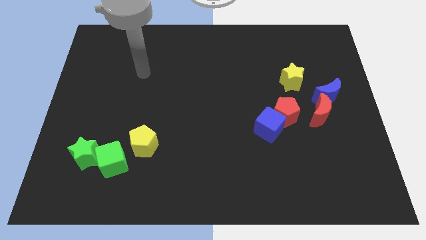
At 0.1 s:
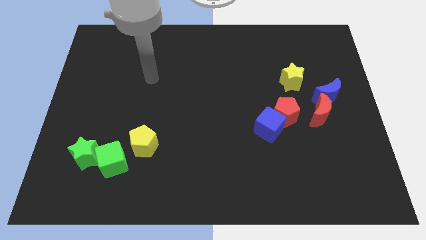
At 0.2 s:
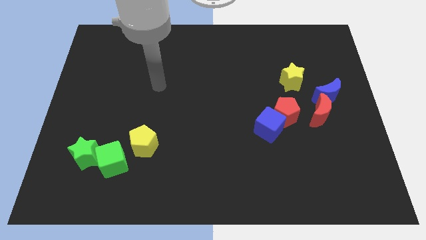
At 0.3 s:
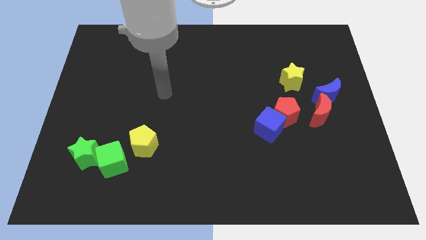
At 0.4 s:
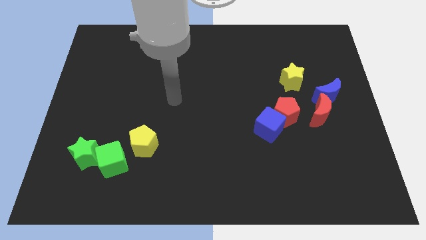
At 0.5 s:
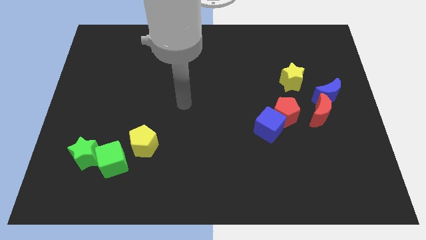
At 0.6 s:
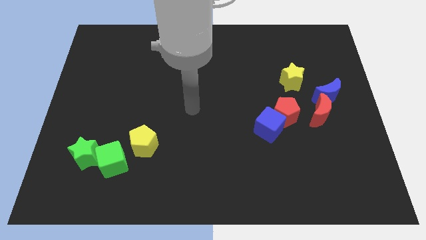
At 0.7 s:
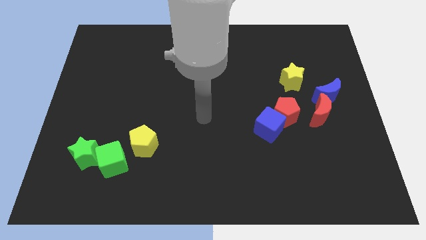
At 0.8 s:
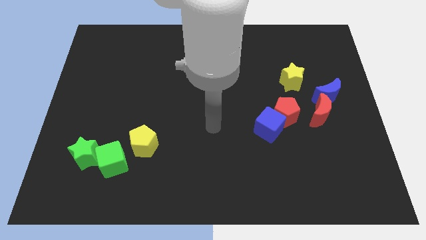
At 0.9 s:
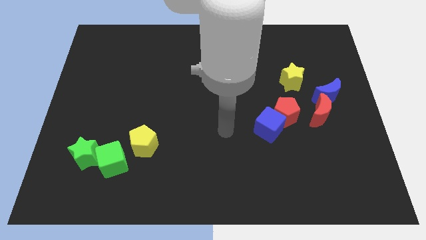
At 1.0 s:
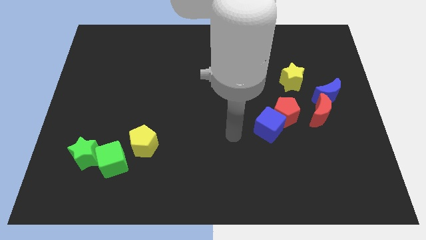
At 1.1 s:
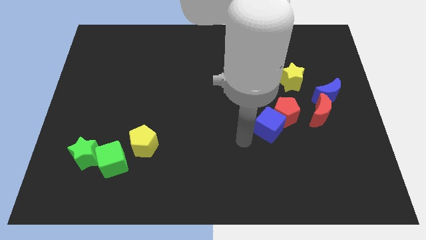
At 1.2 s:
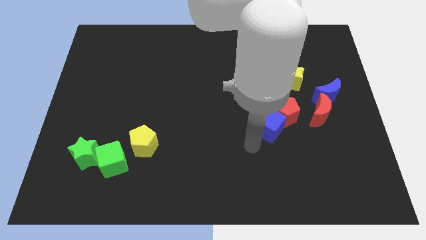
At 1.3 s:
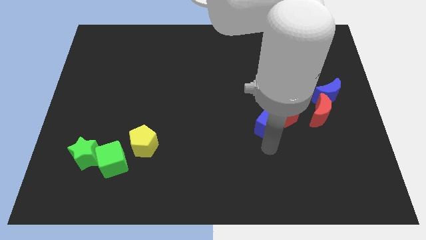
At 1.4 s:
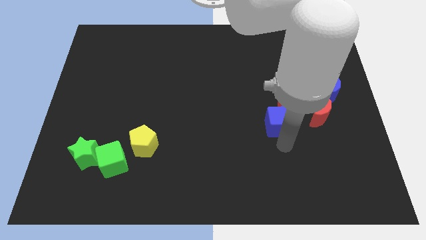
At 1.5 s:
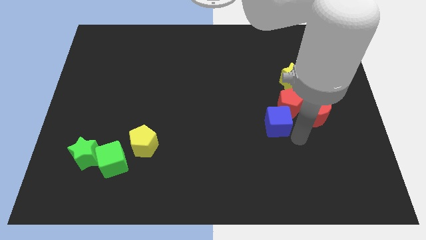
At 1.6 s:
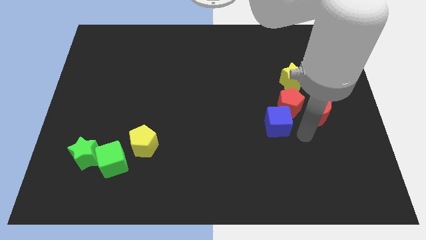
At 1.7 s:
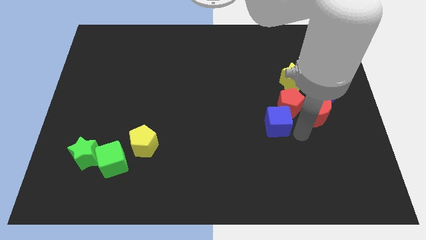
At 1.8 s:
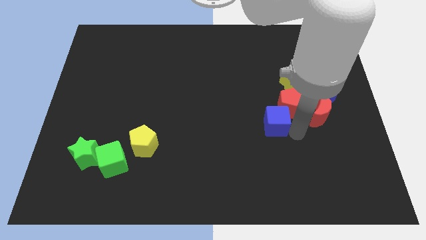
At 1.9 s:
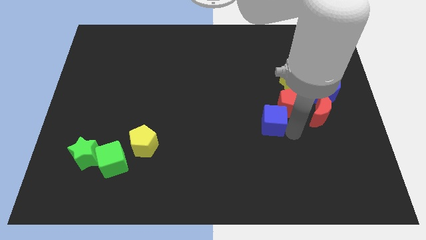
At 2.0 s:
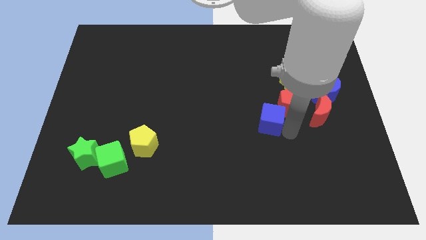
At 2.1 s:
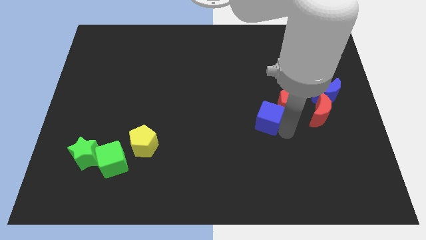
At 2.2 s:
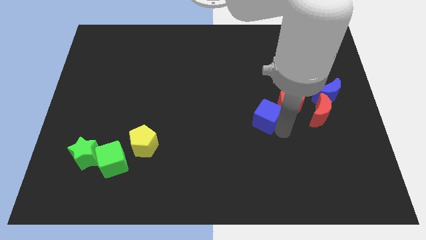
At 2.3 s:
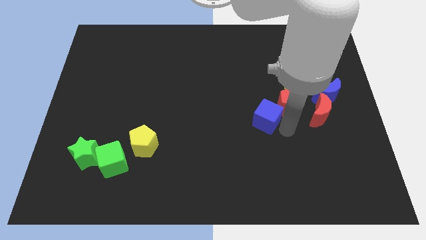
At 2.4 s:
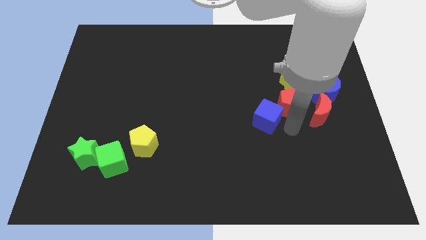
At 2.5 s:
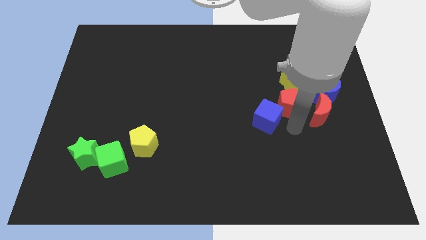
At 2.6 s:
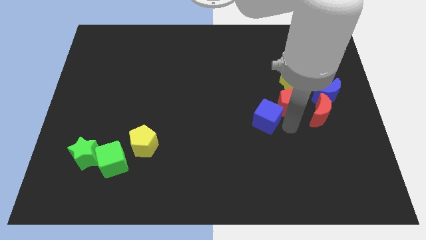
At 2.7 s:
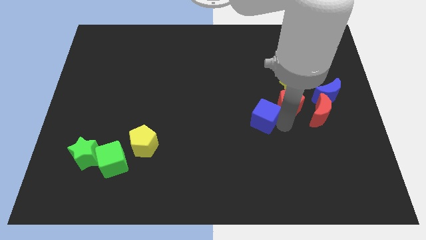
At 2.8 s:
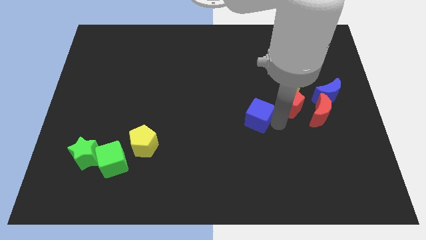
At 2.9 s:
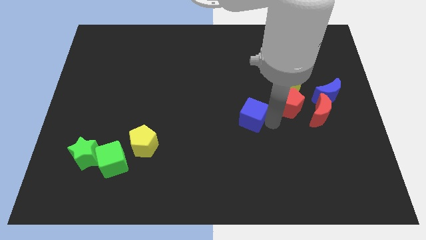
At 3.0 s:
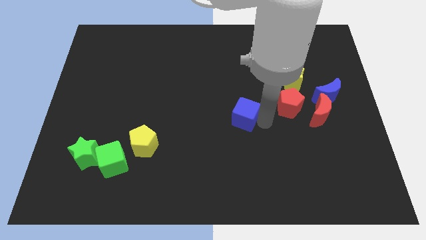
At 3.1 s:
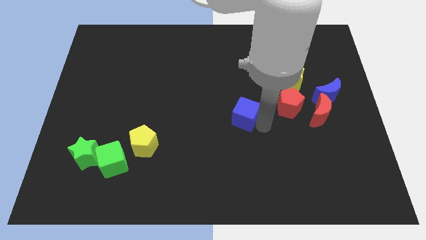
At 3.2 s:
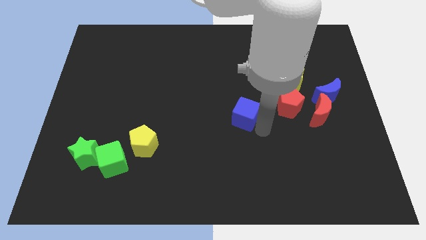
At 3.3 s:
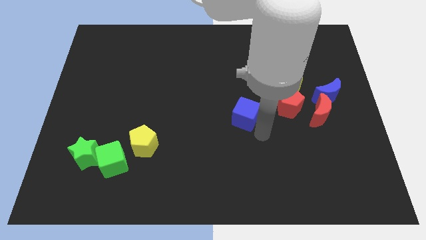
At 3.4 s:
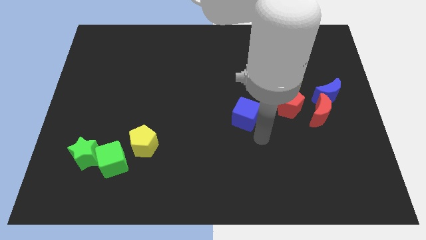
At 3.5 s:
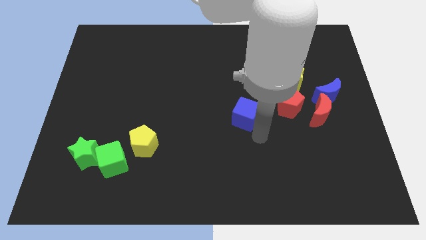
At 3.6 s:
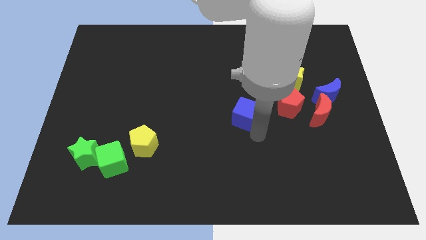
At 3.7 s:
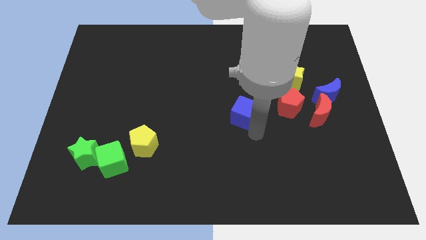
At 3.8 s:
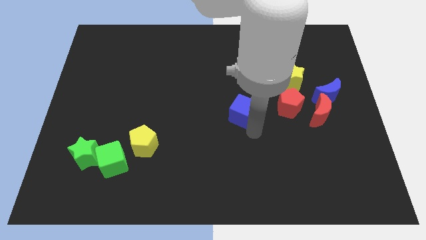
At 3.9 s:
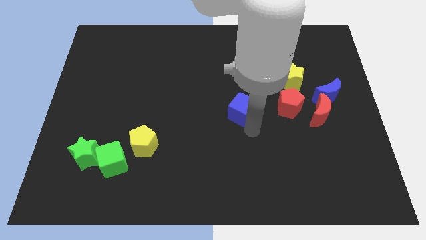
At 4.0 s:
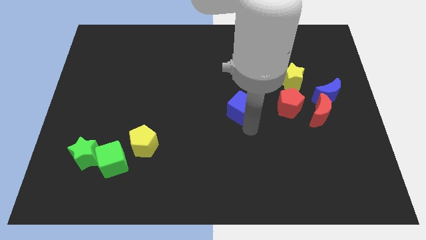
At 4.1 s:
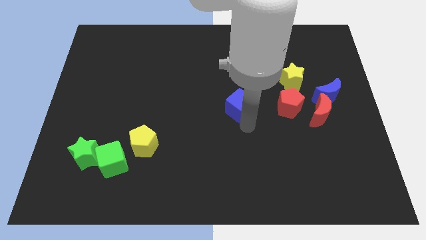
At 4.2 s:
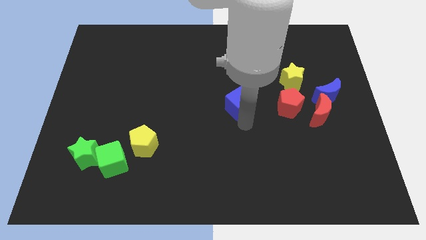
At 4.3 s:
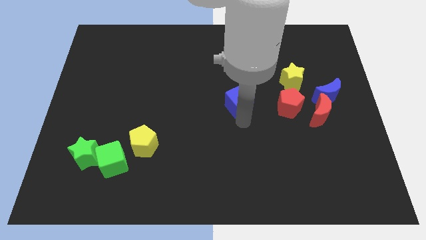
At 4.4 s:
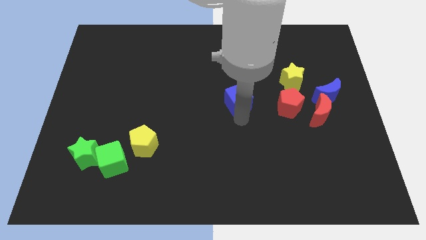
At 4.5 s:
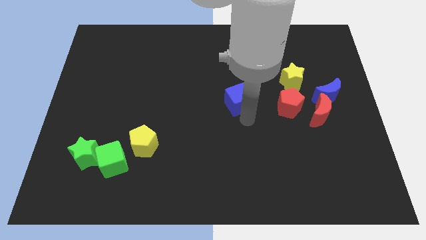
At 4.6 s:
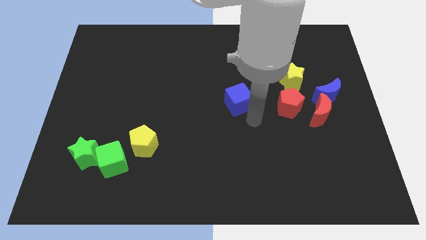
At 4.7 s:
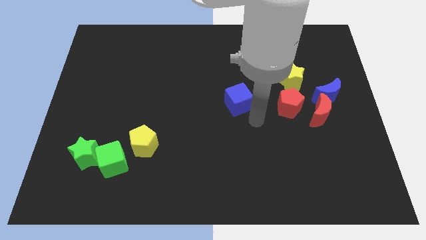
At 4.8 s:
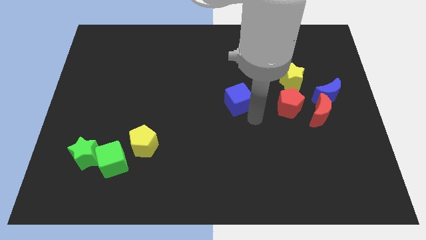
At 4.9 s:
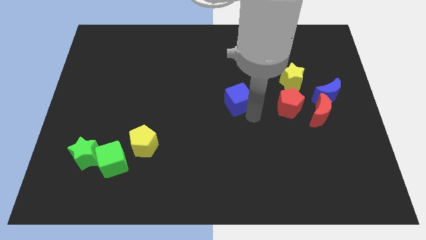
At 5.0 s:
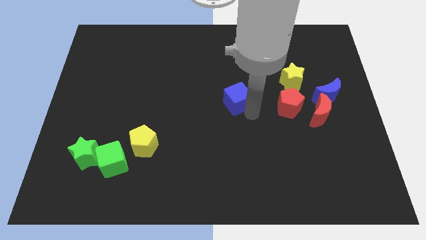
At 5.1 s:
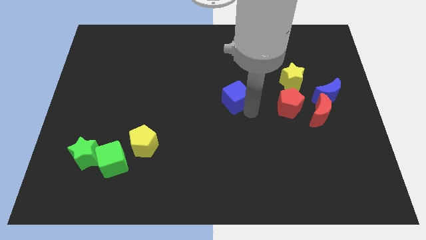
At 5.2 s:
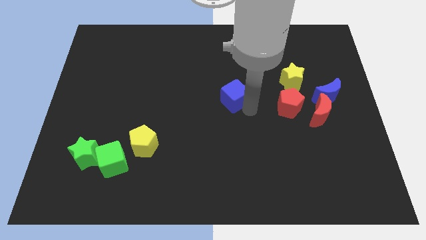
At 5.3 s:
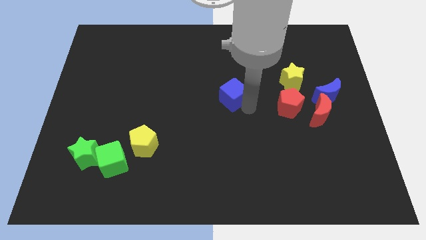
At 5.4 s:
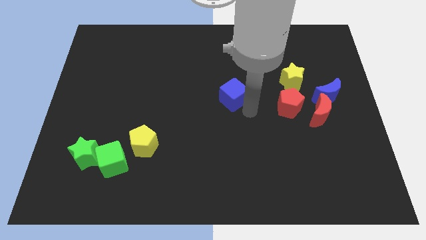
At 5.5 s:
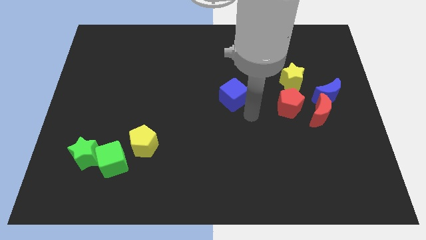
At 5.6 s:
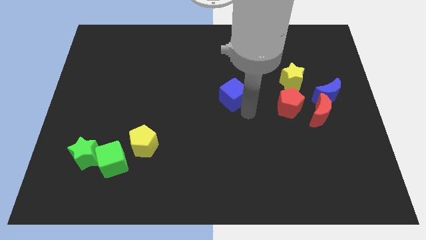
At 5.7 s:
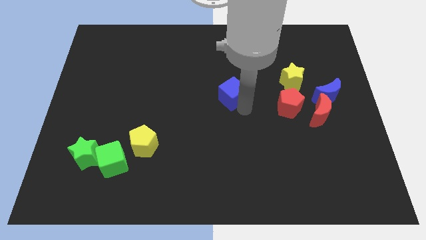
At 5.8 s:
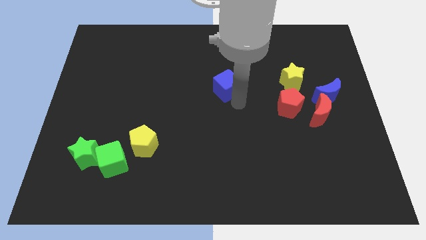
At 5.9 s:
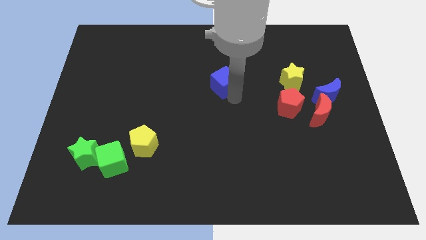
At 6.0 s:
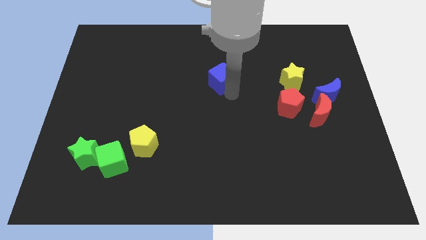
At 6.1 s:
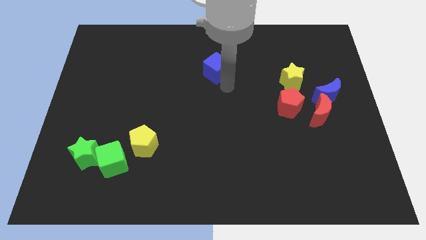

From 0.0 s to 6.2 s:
move the blue cube upwards and left diagonally

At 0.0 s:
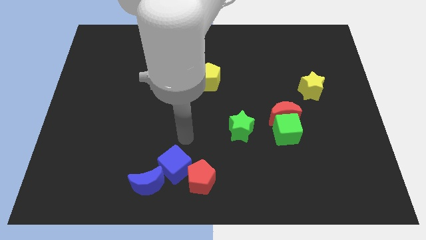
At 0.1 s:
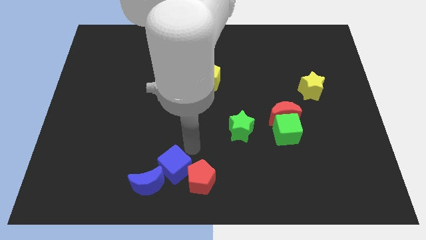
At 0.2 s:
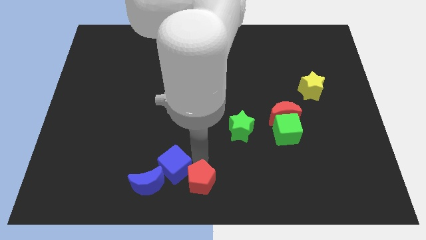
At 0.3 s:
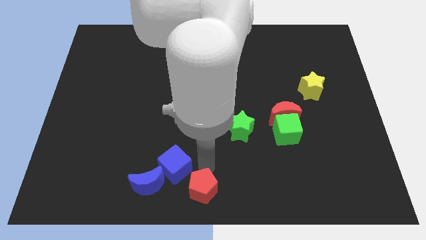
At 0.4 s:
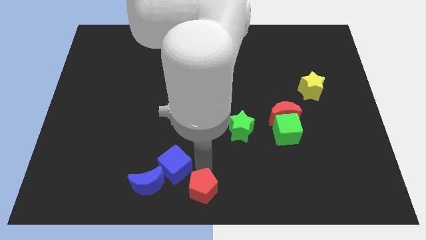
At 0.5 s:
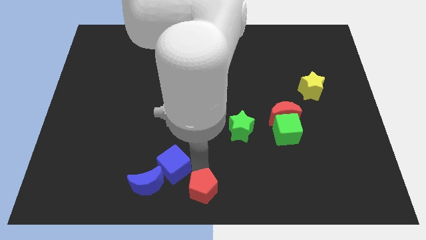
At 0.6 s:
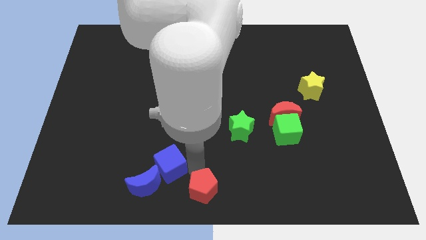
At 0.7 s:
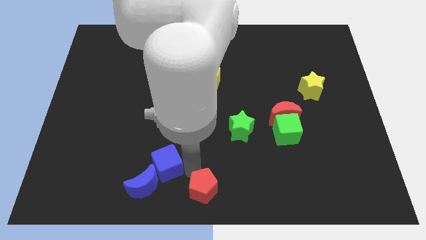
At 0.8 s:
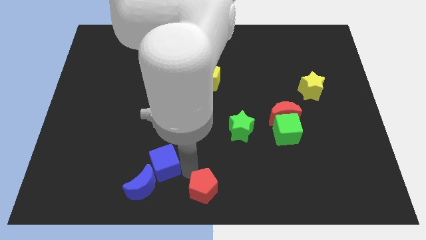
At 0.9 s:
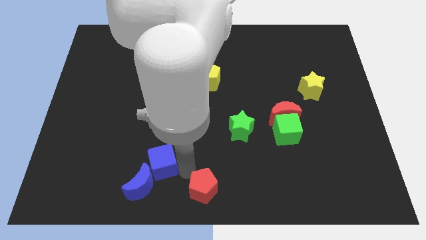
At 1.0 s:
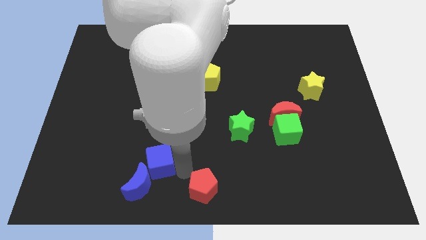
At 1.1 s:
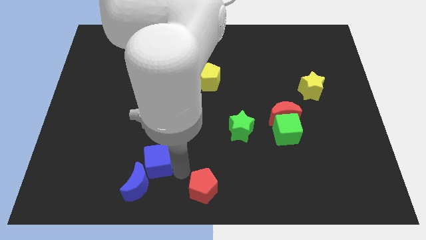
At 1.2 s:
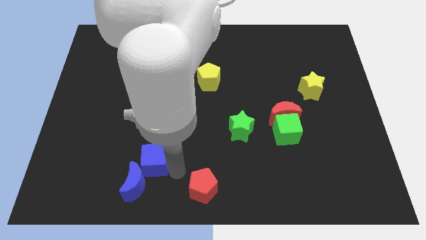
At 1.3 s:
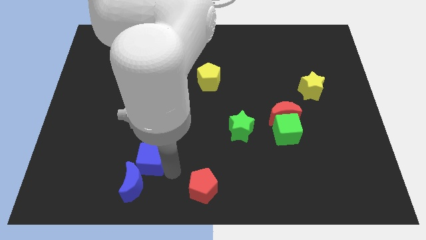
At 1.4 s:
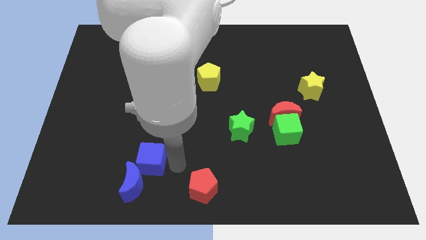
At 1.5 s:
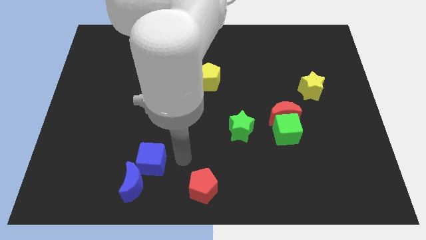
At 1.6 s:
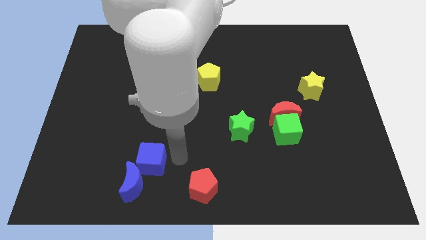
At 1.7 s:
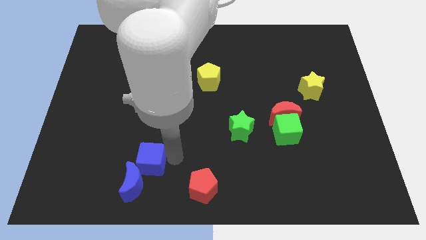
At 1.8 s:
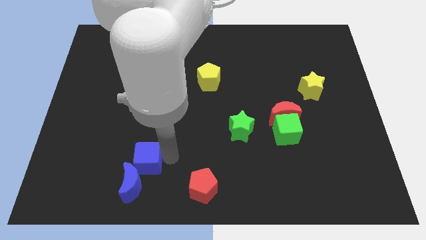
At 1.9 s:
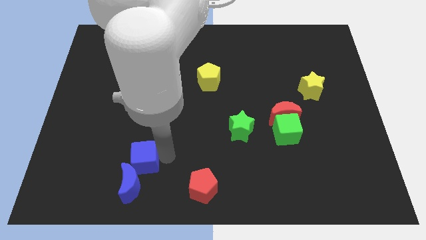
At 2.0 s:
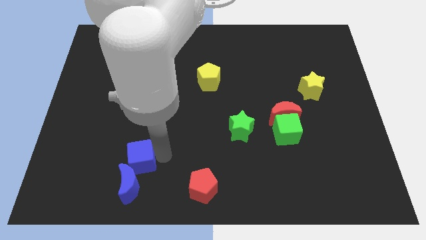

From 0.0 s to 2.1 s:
slide the blue cube to the left slightly
